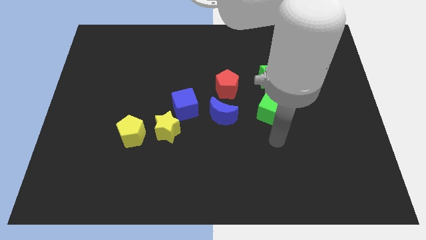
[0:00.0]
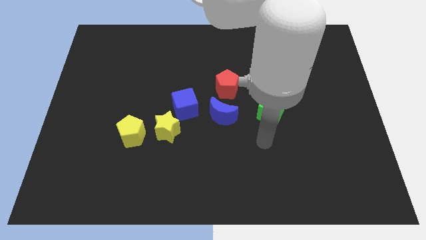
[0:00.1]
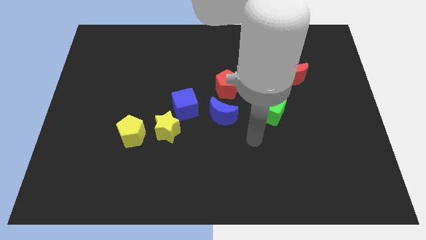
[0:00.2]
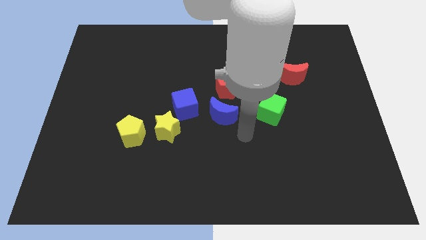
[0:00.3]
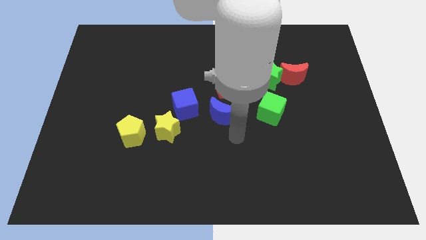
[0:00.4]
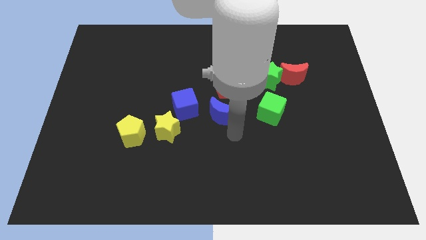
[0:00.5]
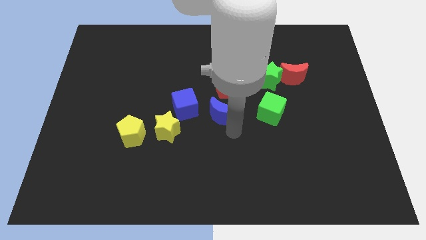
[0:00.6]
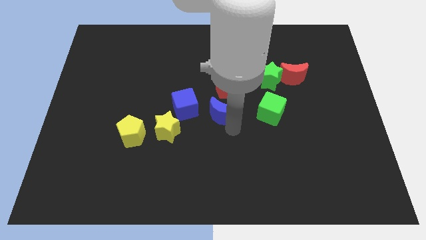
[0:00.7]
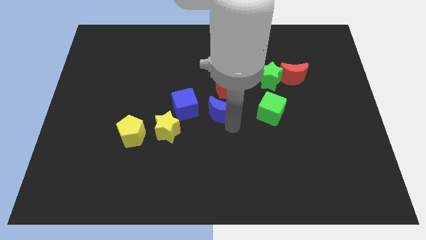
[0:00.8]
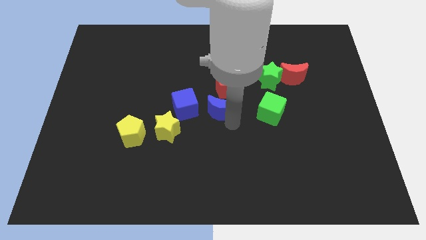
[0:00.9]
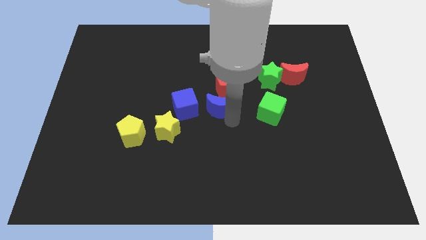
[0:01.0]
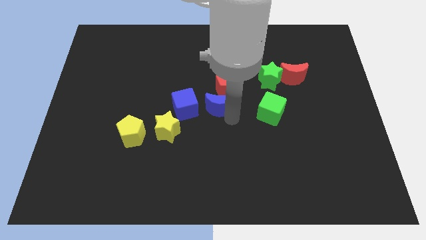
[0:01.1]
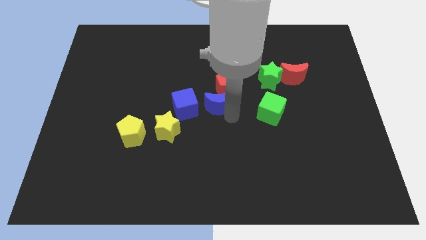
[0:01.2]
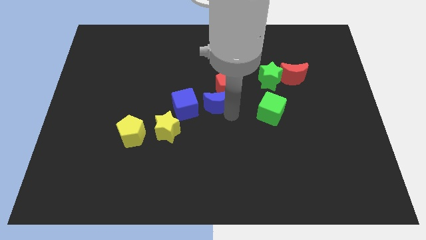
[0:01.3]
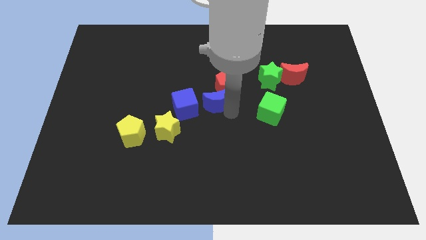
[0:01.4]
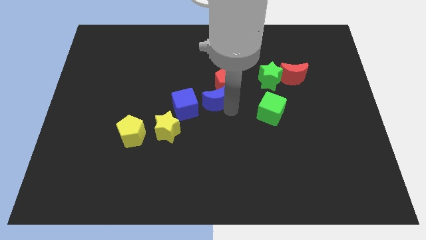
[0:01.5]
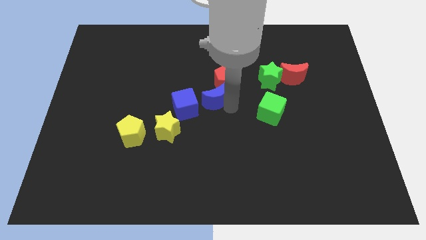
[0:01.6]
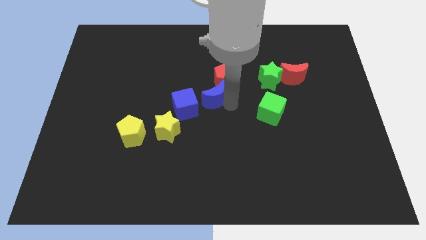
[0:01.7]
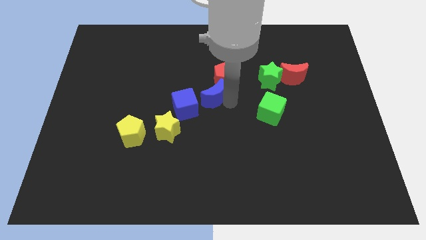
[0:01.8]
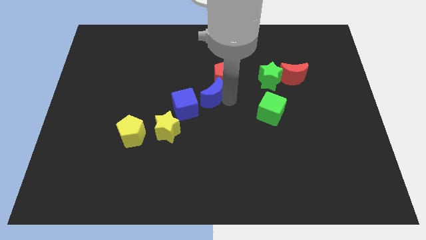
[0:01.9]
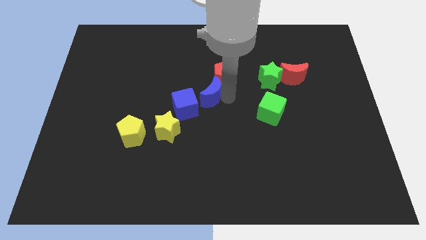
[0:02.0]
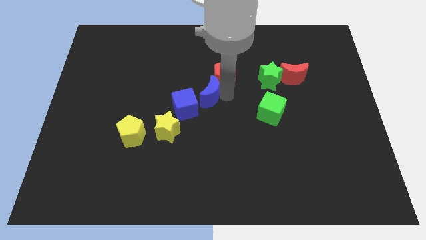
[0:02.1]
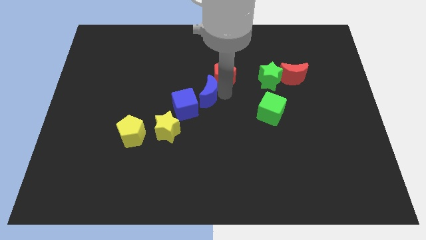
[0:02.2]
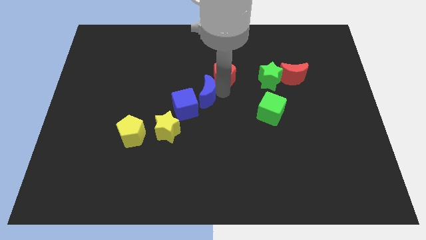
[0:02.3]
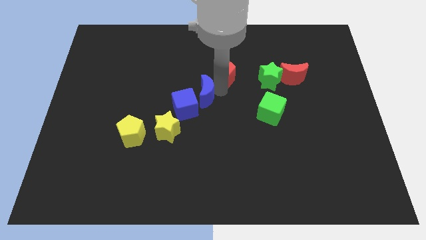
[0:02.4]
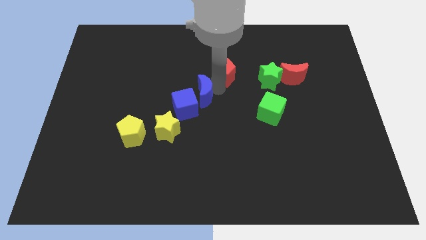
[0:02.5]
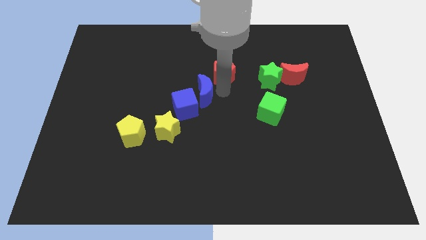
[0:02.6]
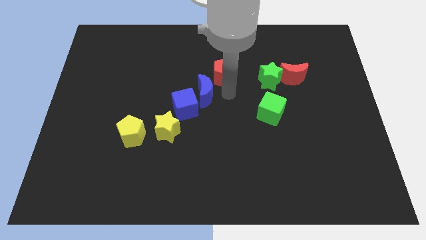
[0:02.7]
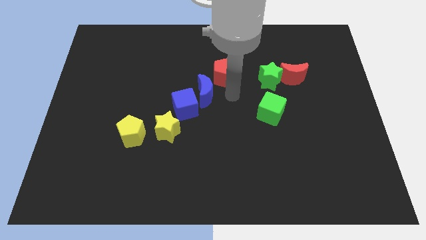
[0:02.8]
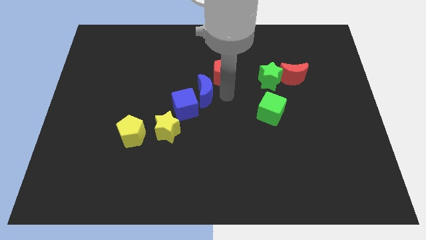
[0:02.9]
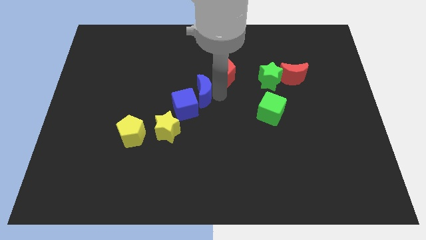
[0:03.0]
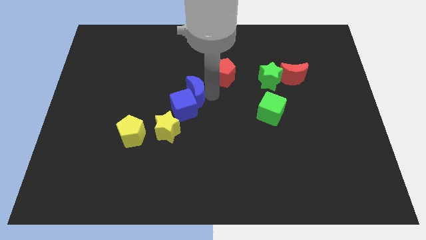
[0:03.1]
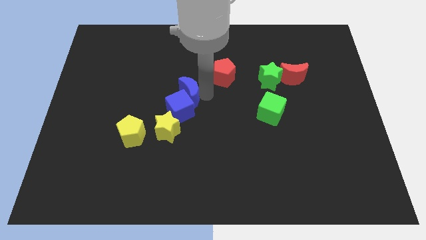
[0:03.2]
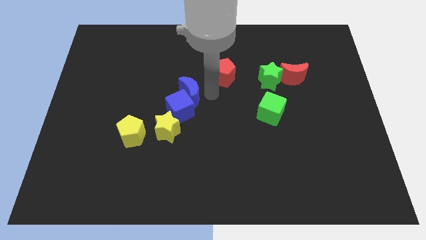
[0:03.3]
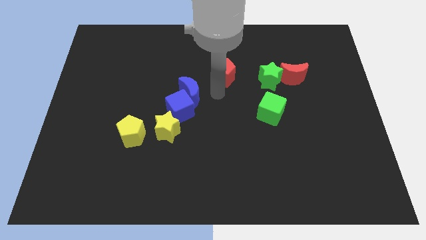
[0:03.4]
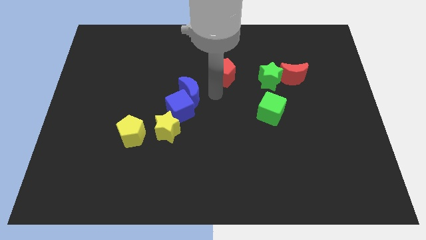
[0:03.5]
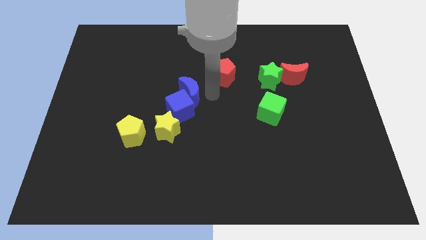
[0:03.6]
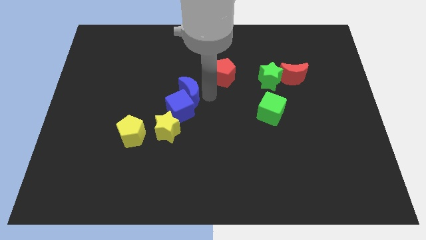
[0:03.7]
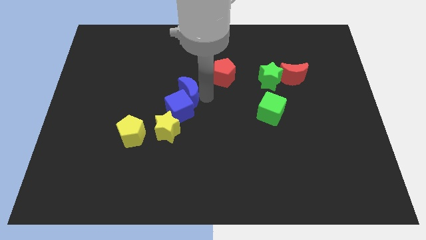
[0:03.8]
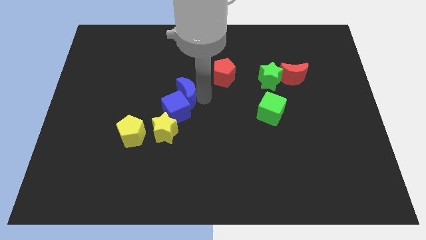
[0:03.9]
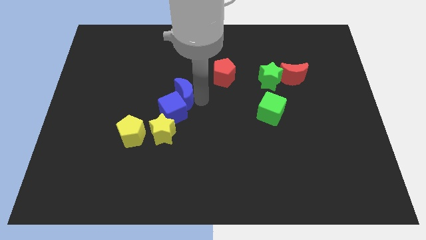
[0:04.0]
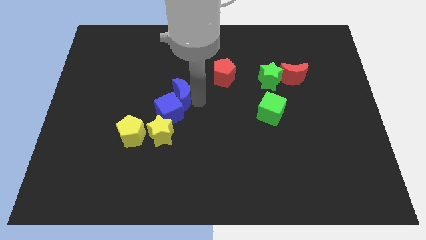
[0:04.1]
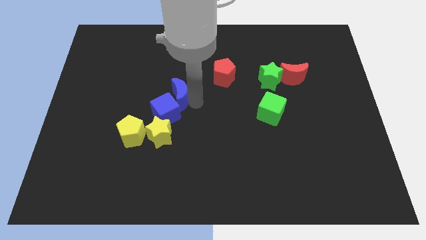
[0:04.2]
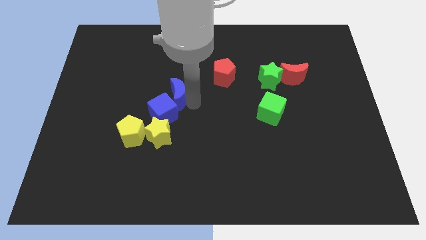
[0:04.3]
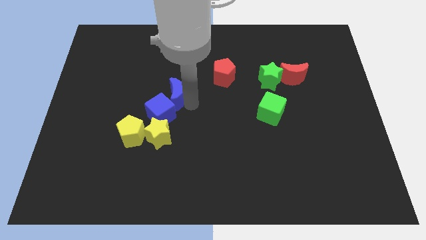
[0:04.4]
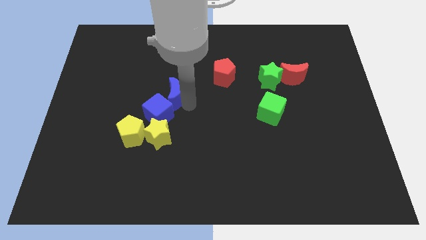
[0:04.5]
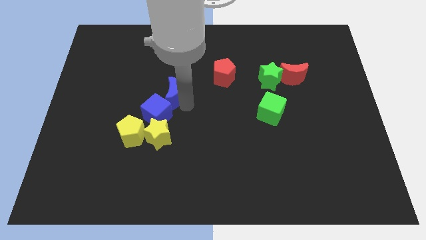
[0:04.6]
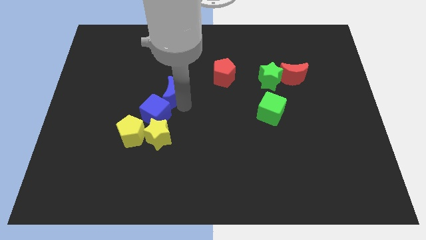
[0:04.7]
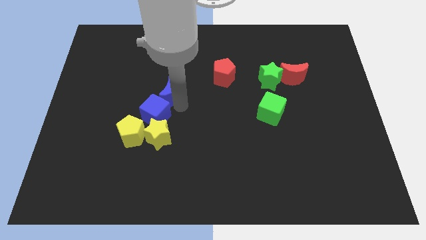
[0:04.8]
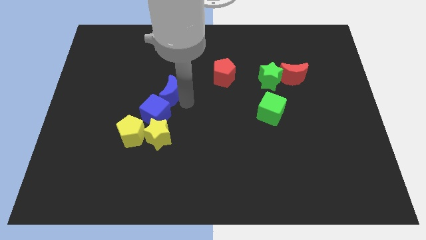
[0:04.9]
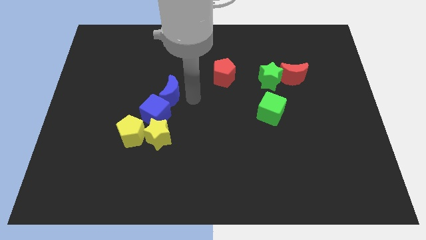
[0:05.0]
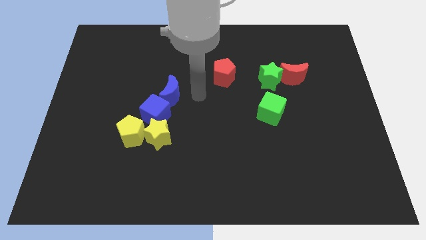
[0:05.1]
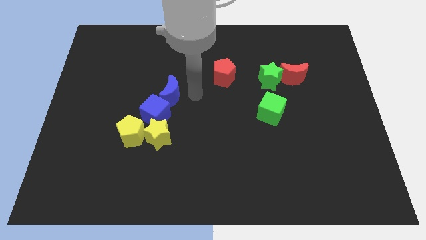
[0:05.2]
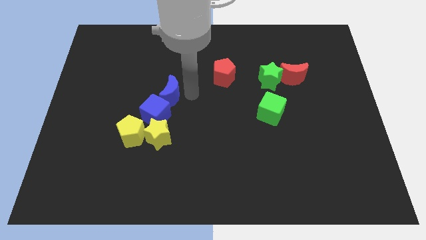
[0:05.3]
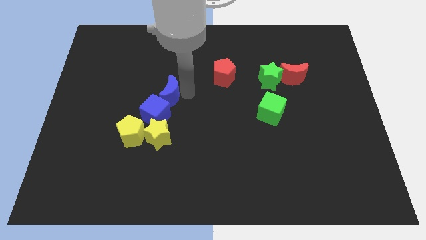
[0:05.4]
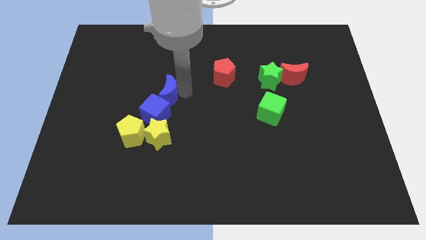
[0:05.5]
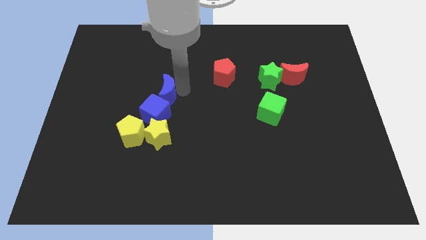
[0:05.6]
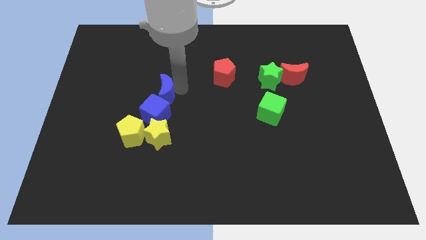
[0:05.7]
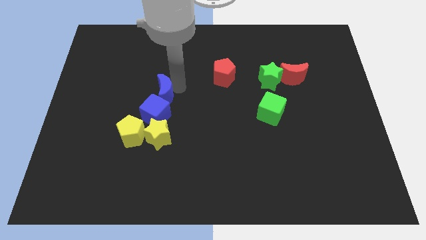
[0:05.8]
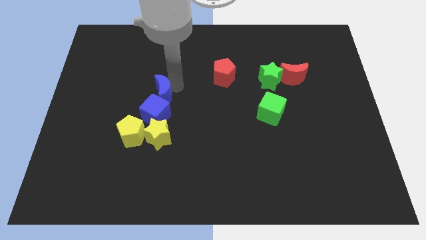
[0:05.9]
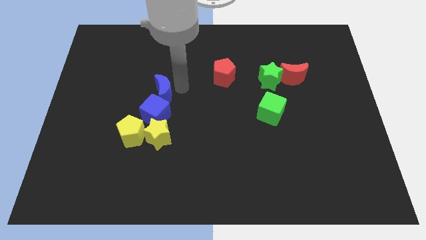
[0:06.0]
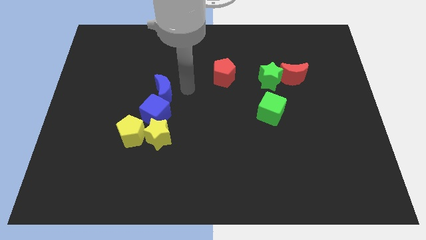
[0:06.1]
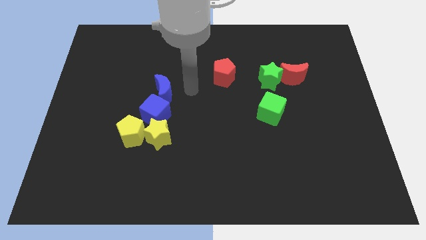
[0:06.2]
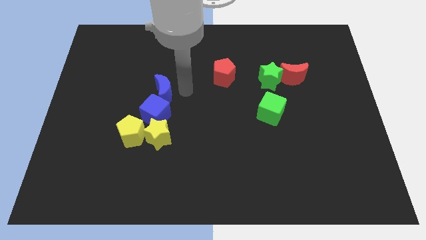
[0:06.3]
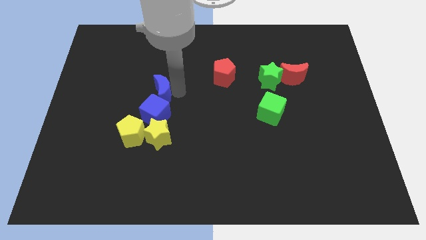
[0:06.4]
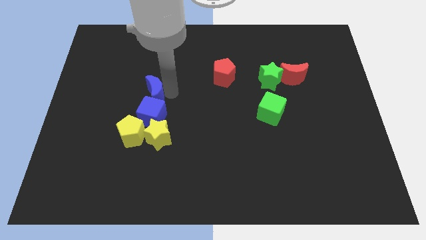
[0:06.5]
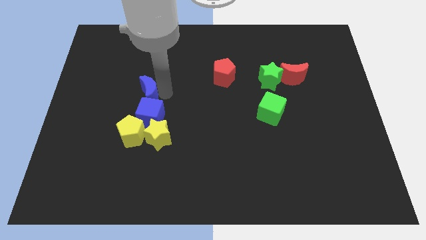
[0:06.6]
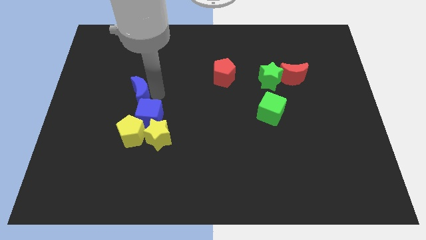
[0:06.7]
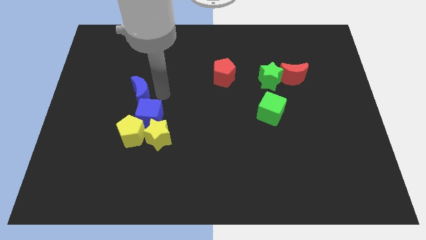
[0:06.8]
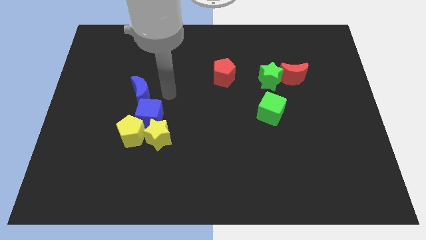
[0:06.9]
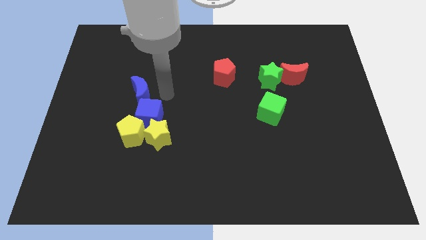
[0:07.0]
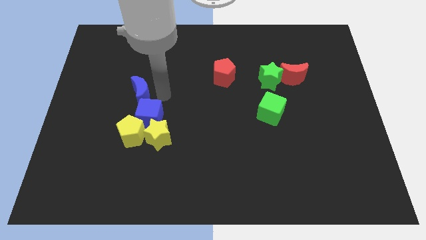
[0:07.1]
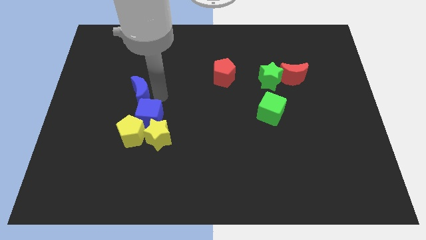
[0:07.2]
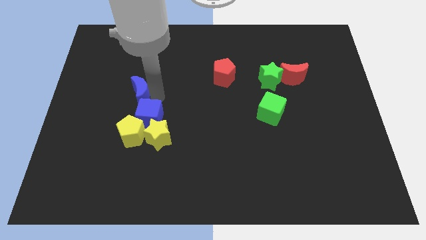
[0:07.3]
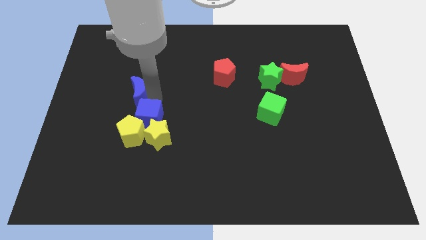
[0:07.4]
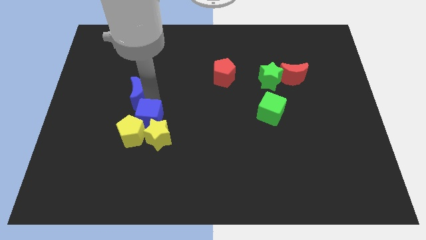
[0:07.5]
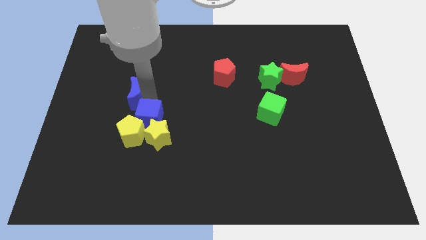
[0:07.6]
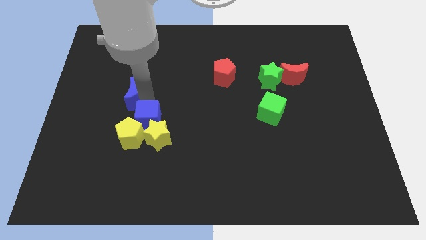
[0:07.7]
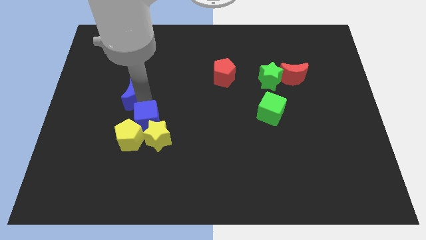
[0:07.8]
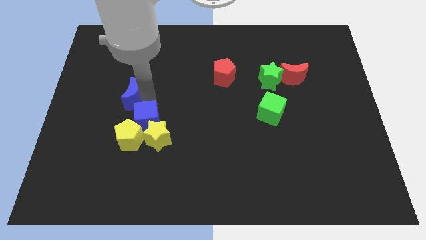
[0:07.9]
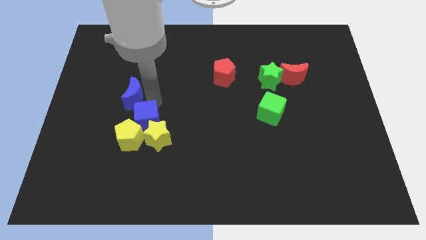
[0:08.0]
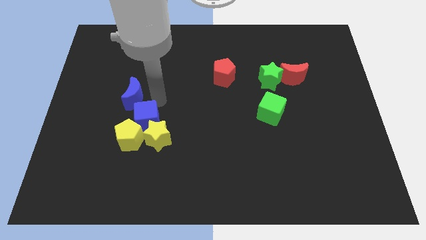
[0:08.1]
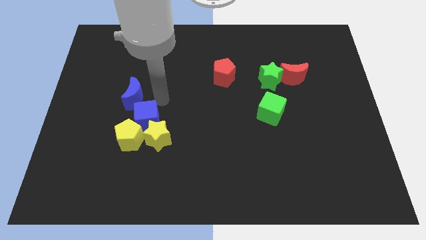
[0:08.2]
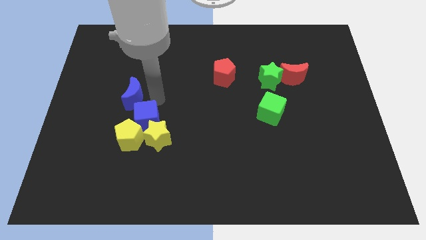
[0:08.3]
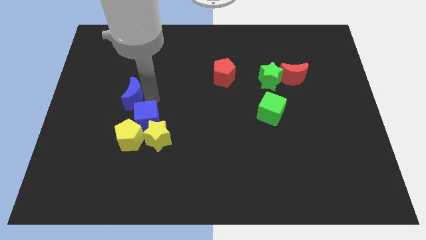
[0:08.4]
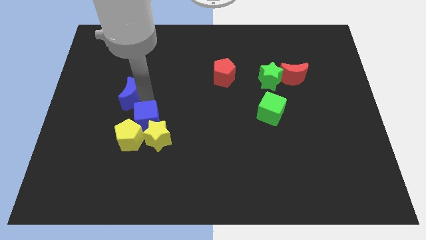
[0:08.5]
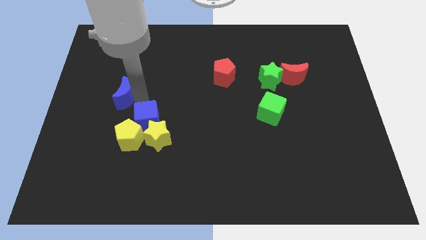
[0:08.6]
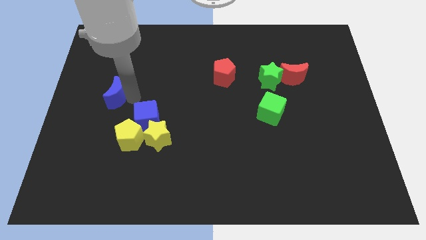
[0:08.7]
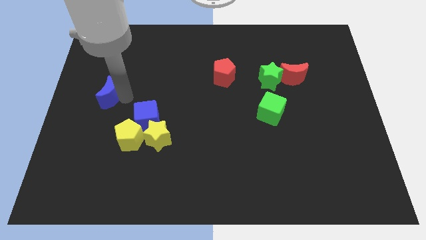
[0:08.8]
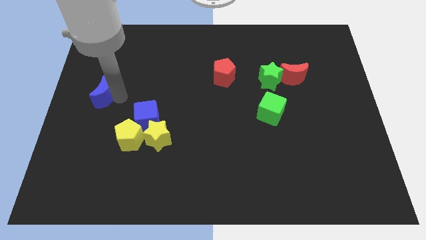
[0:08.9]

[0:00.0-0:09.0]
slide the blue moon to the left side
